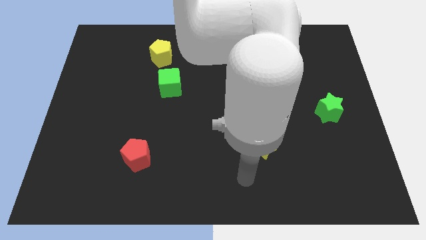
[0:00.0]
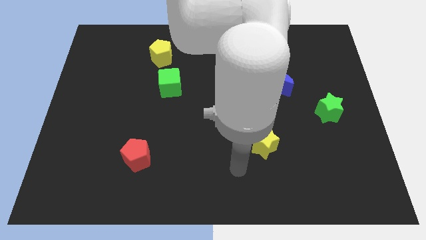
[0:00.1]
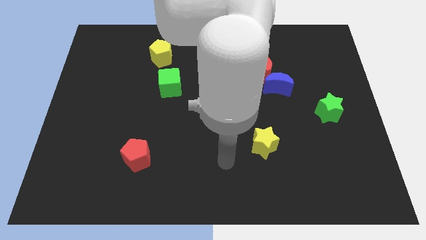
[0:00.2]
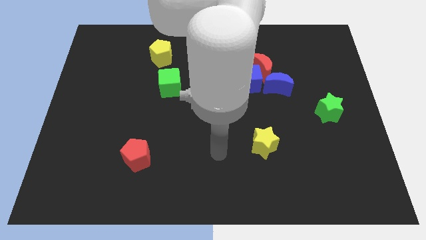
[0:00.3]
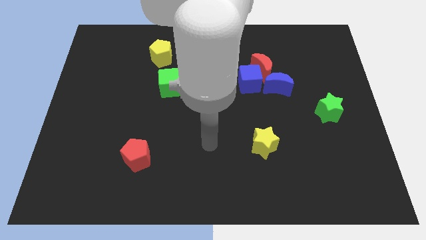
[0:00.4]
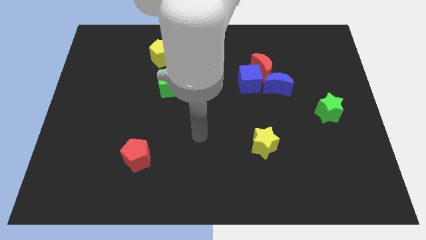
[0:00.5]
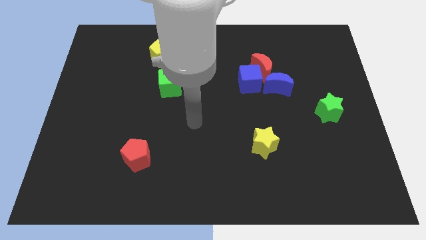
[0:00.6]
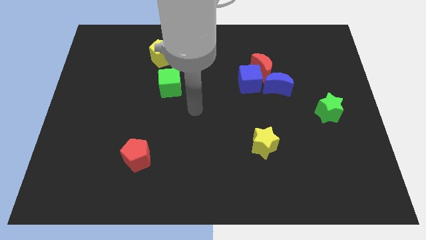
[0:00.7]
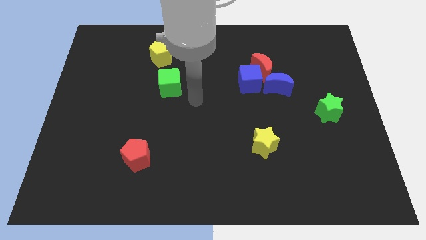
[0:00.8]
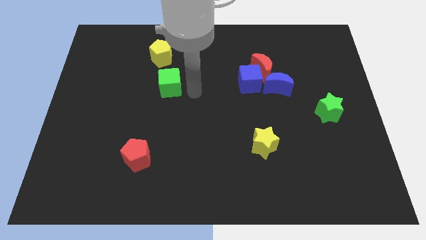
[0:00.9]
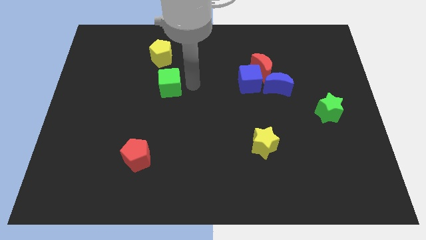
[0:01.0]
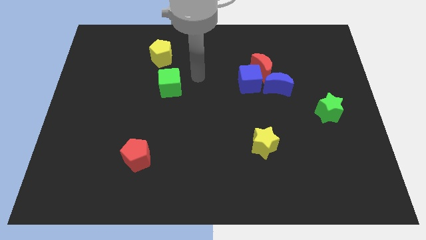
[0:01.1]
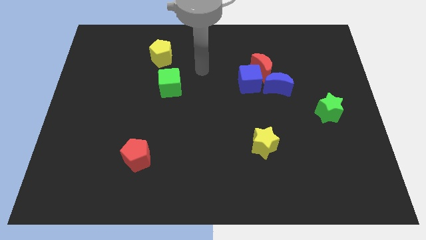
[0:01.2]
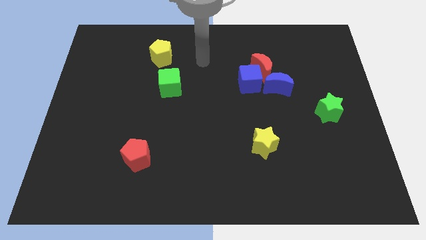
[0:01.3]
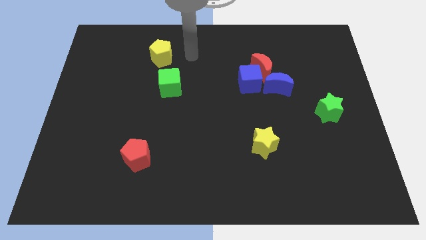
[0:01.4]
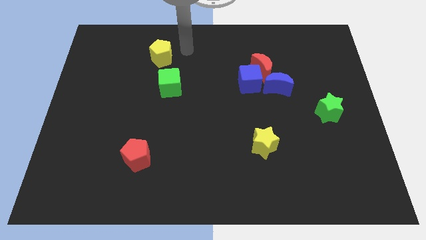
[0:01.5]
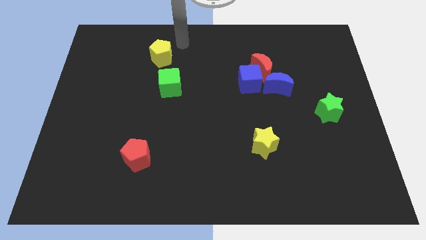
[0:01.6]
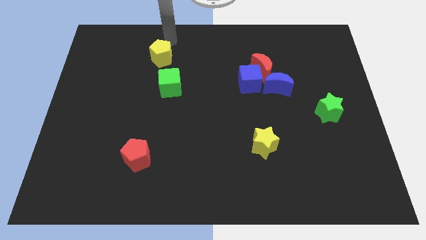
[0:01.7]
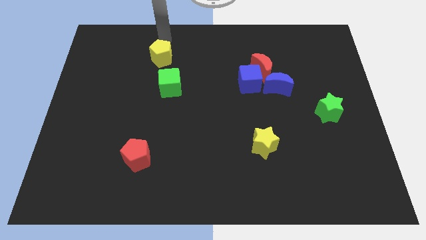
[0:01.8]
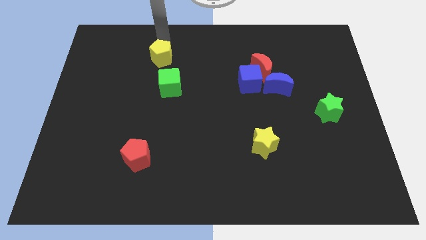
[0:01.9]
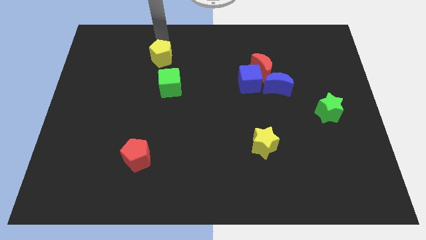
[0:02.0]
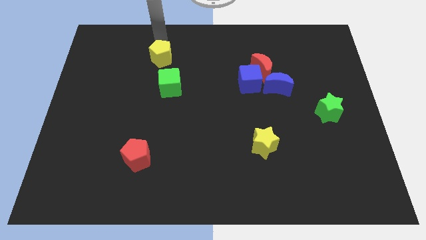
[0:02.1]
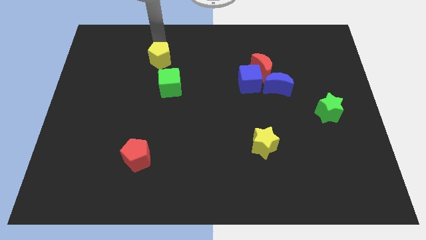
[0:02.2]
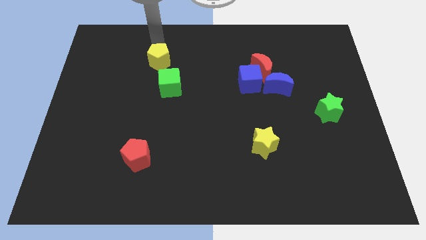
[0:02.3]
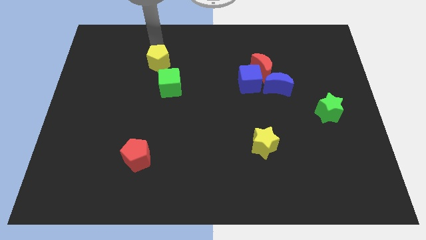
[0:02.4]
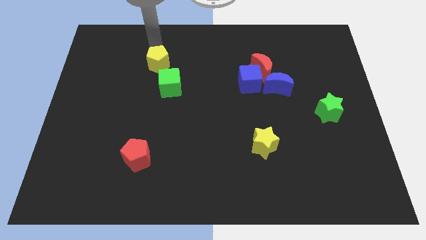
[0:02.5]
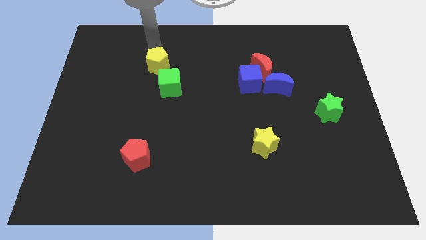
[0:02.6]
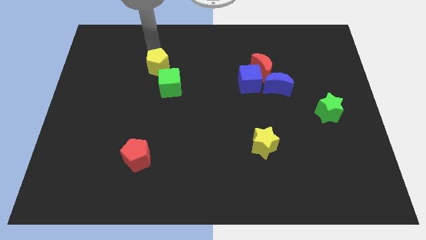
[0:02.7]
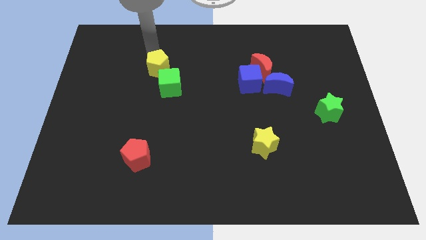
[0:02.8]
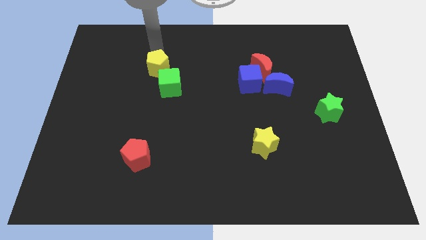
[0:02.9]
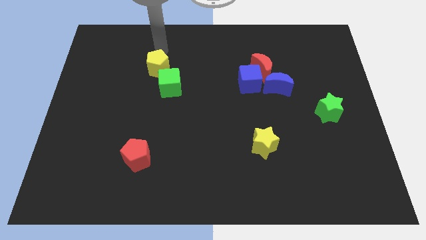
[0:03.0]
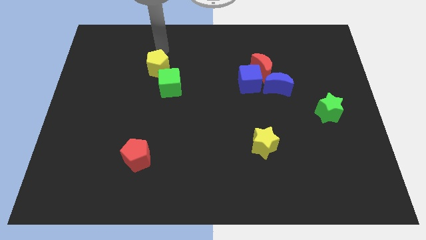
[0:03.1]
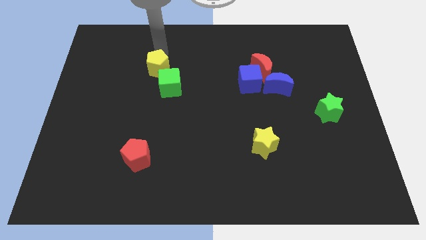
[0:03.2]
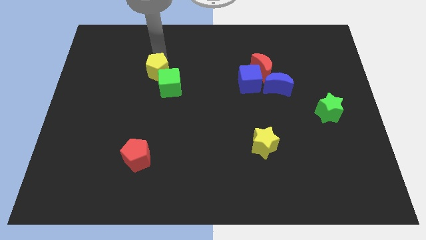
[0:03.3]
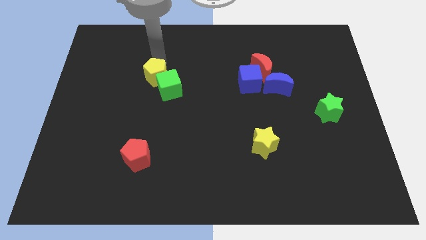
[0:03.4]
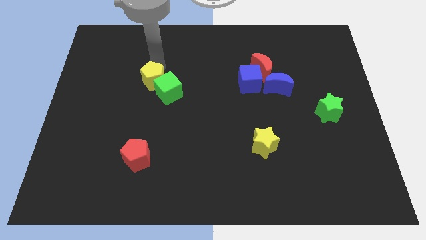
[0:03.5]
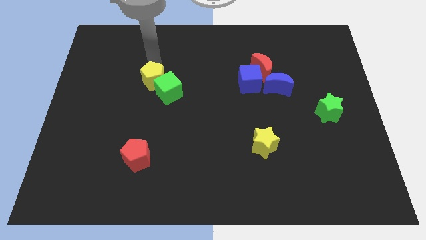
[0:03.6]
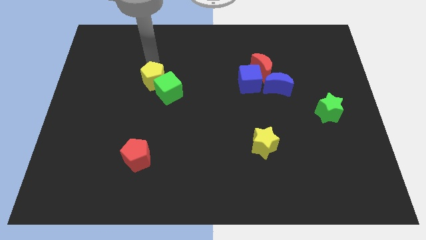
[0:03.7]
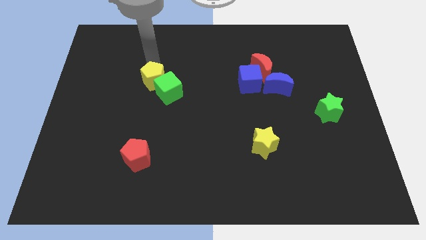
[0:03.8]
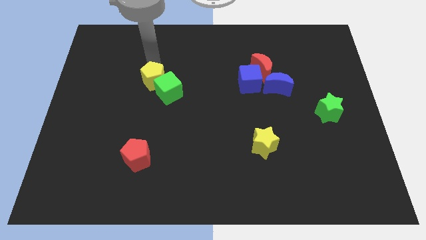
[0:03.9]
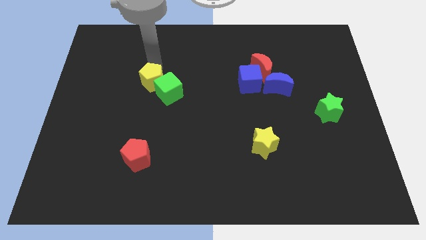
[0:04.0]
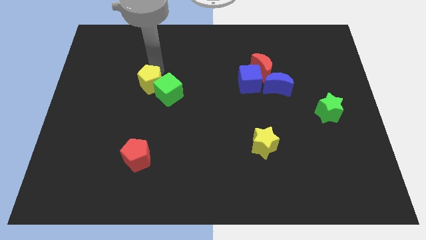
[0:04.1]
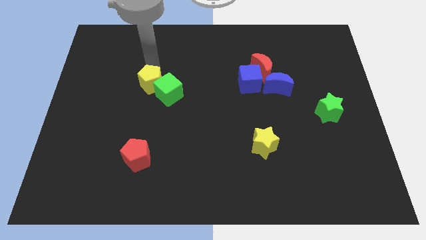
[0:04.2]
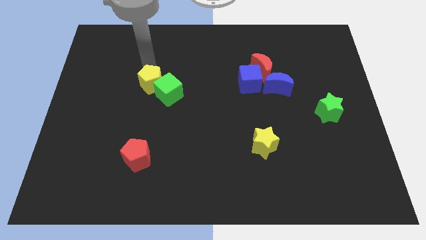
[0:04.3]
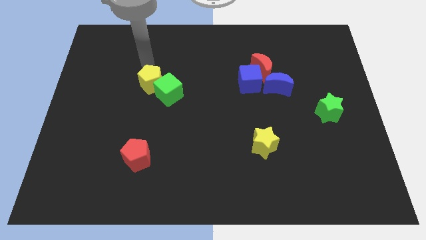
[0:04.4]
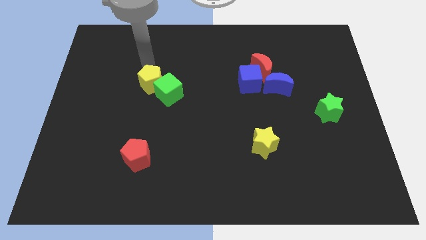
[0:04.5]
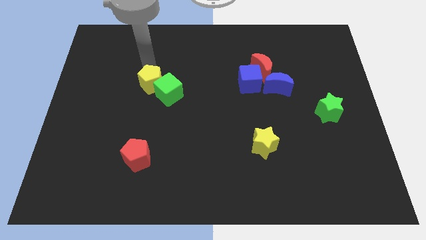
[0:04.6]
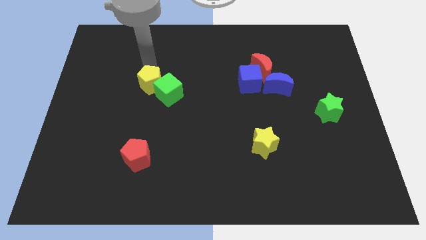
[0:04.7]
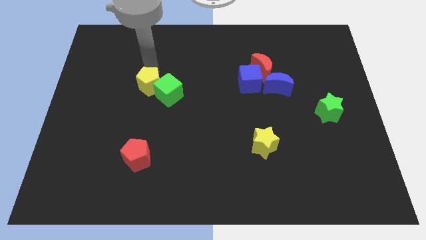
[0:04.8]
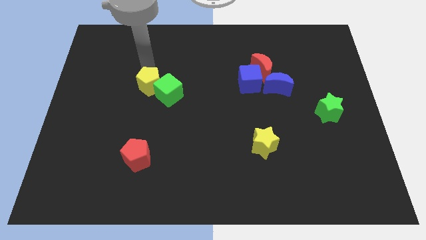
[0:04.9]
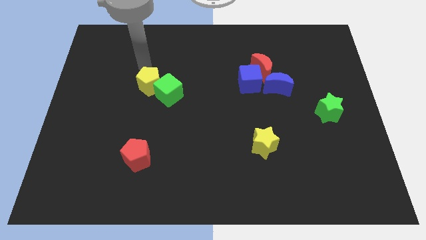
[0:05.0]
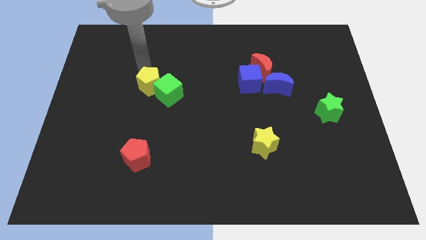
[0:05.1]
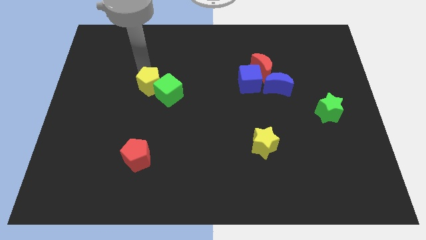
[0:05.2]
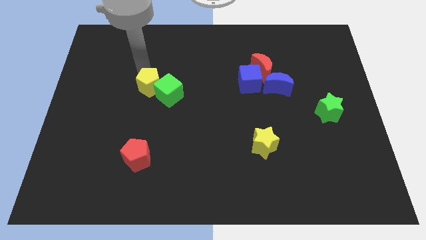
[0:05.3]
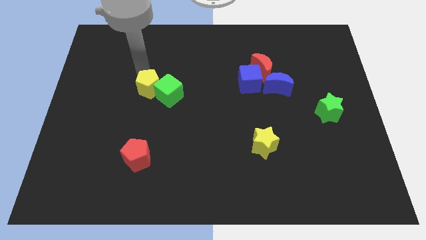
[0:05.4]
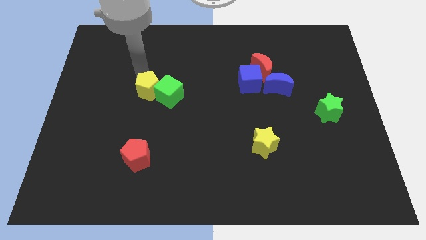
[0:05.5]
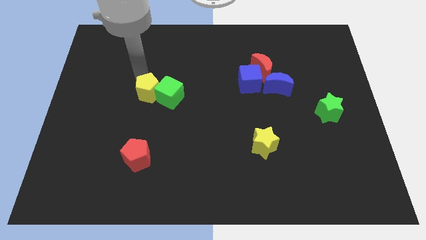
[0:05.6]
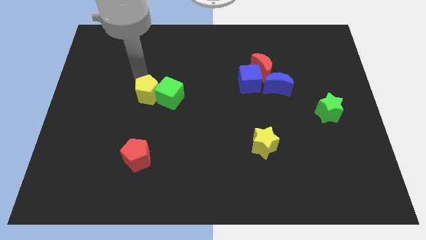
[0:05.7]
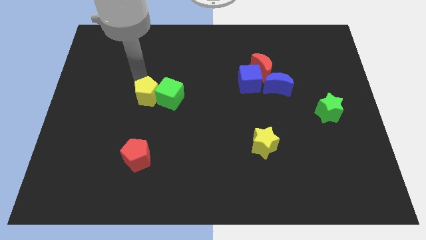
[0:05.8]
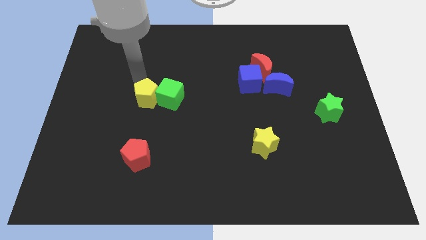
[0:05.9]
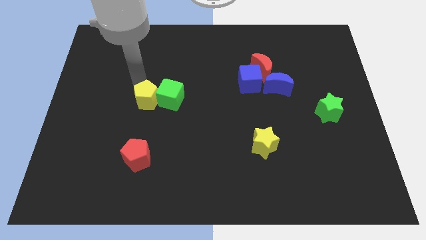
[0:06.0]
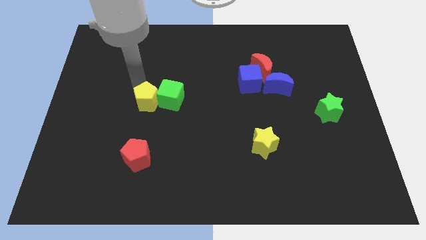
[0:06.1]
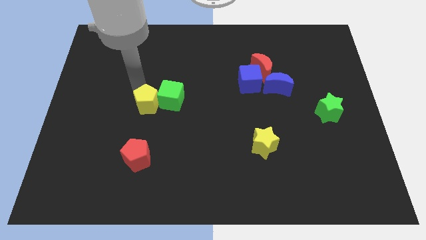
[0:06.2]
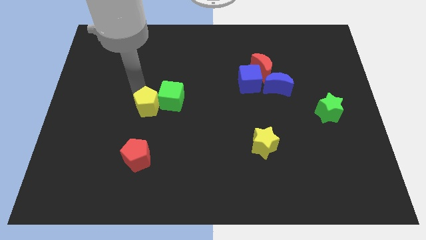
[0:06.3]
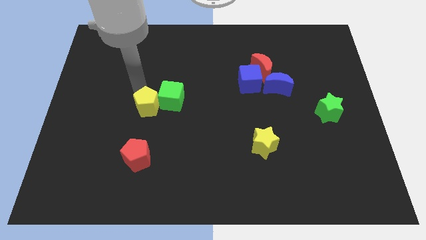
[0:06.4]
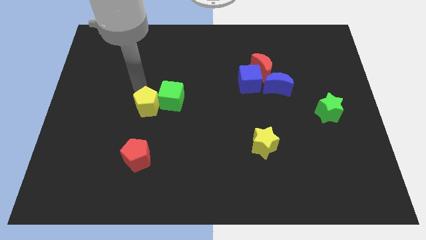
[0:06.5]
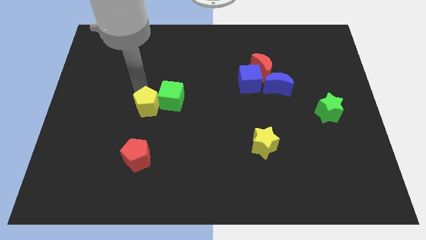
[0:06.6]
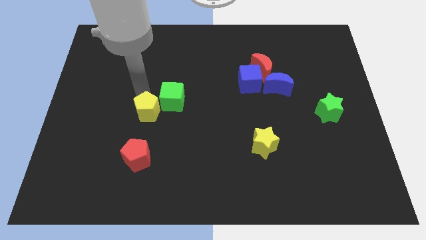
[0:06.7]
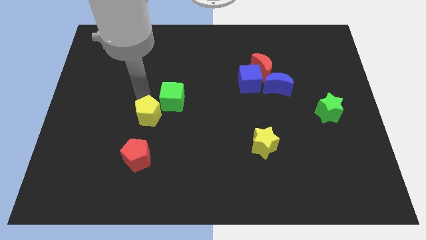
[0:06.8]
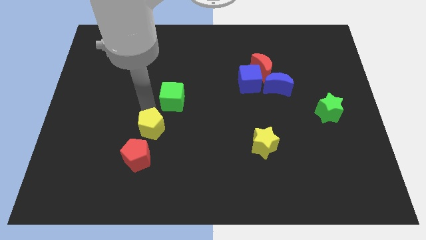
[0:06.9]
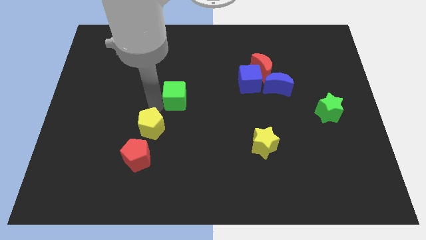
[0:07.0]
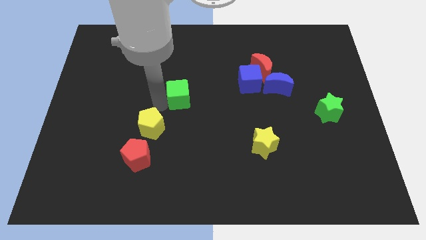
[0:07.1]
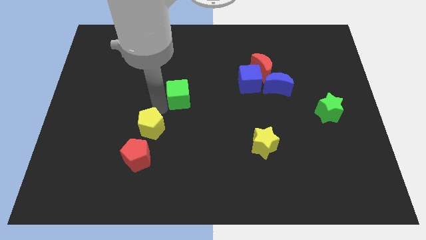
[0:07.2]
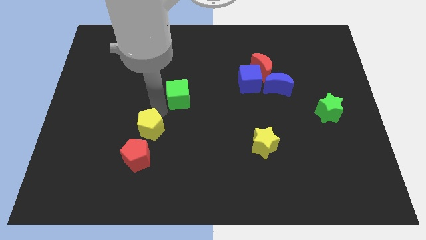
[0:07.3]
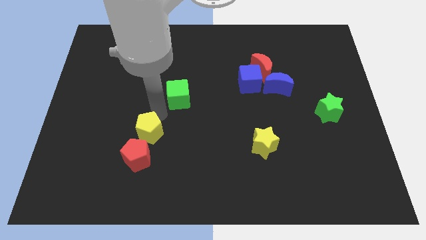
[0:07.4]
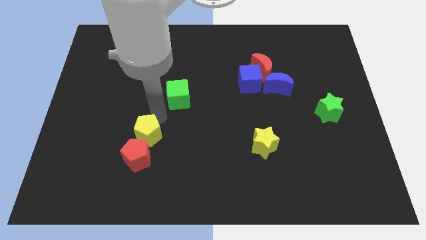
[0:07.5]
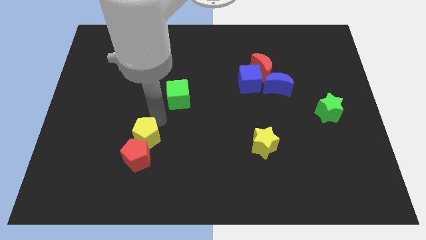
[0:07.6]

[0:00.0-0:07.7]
push the yellow pentagon close to the red pentagon
